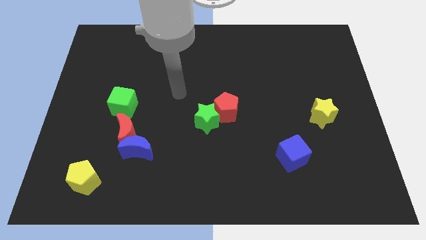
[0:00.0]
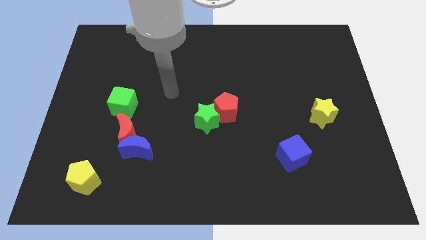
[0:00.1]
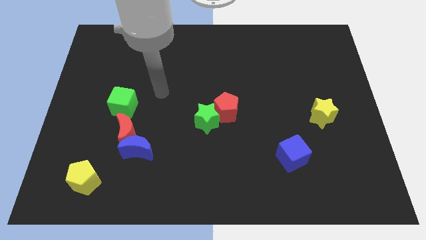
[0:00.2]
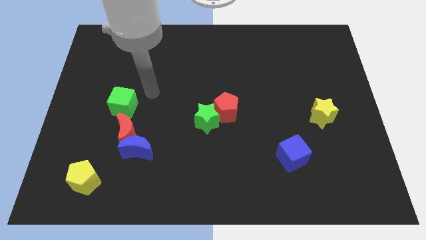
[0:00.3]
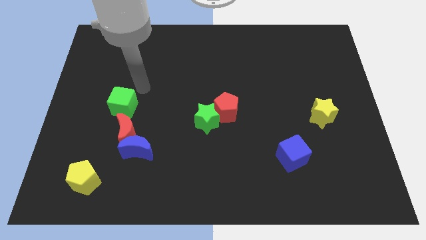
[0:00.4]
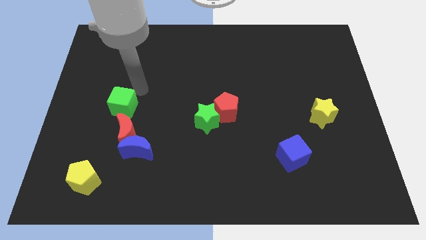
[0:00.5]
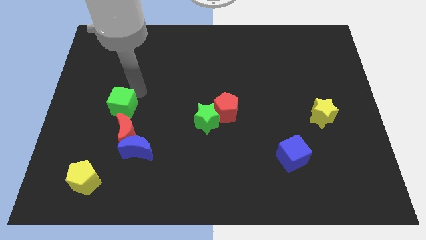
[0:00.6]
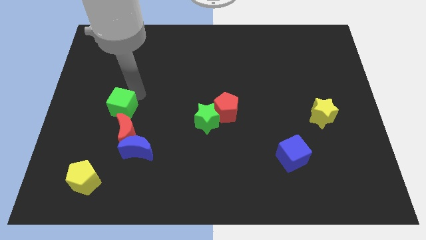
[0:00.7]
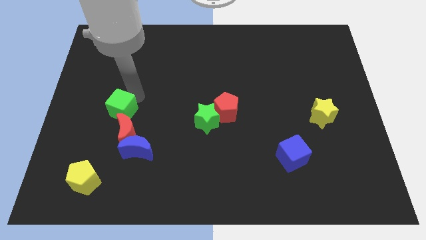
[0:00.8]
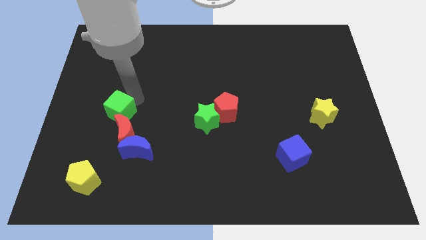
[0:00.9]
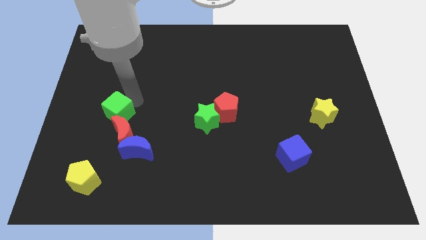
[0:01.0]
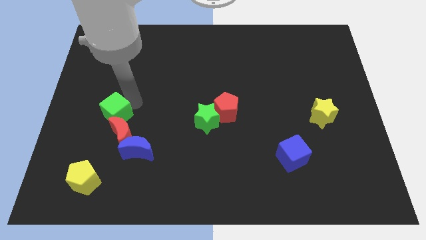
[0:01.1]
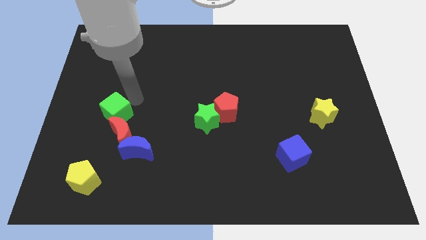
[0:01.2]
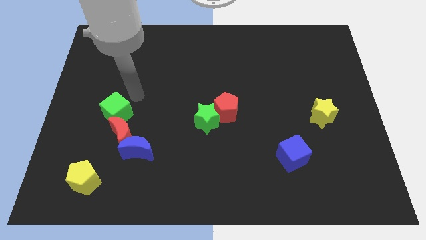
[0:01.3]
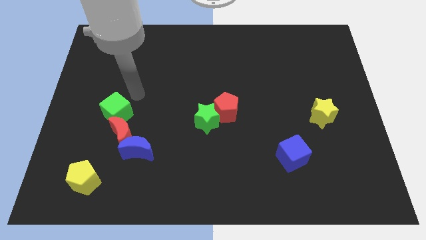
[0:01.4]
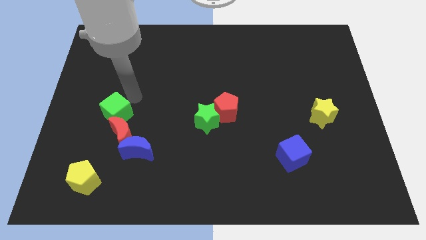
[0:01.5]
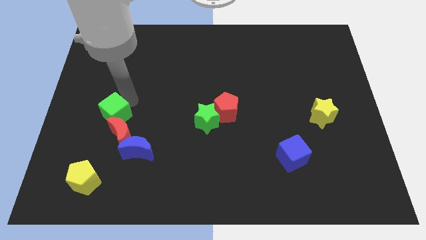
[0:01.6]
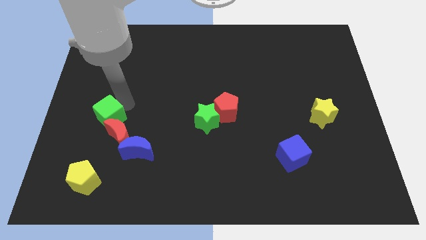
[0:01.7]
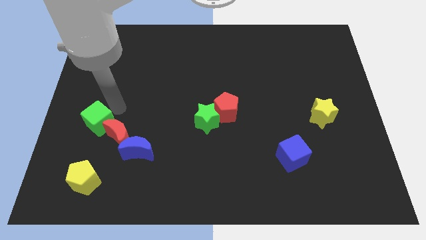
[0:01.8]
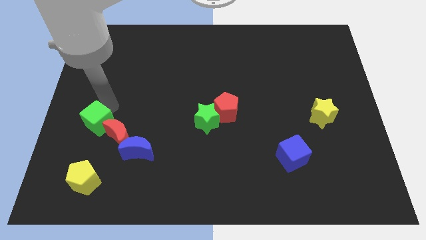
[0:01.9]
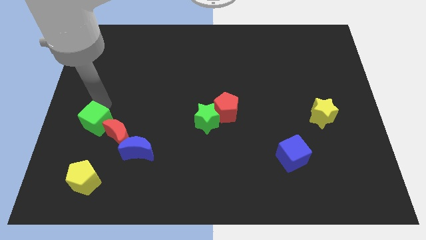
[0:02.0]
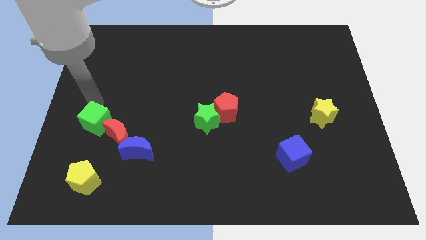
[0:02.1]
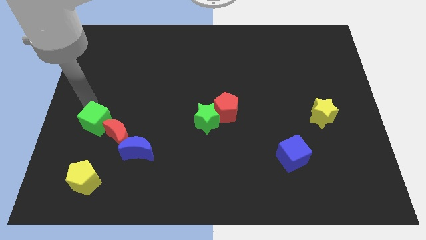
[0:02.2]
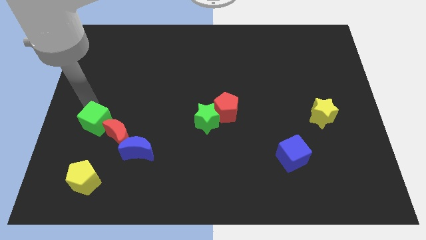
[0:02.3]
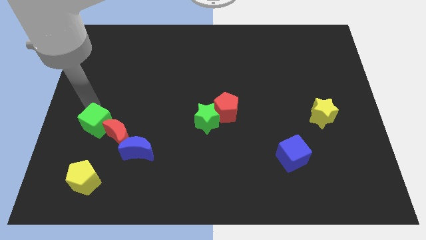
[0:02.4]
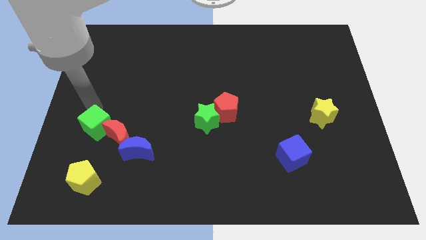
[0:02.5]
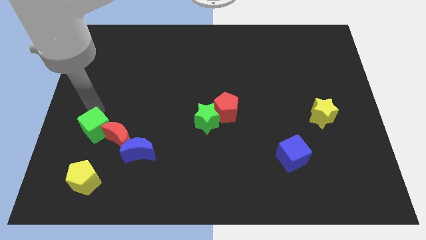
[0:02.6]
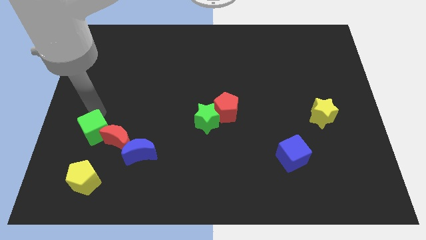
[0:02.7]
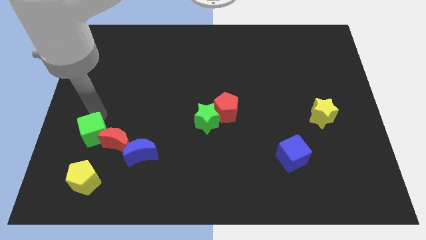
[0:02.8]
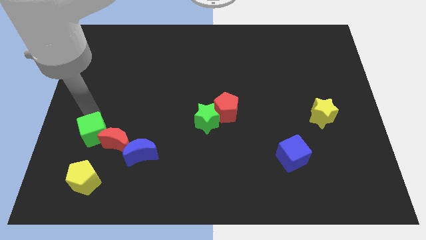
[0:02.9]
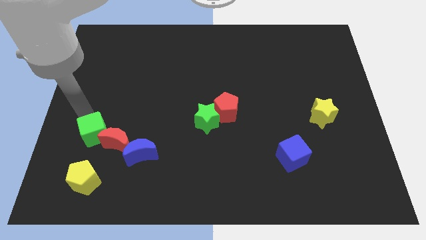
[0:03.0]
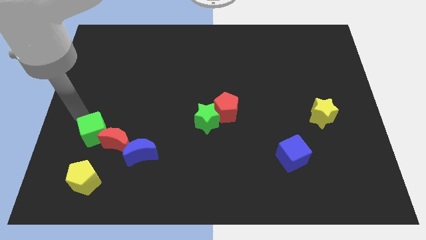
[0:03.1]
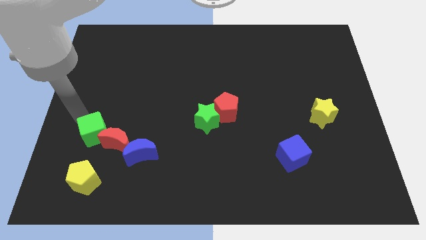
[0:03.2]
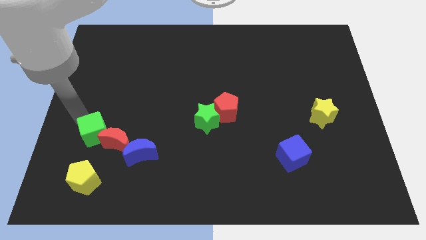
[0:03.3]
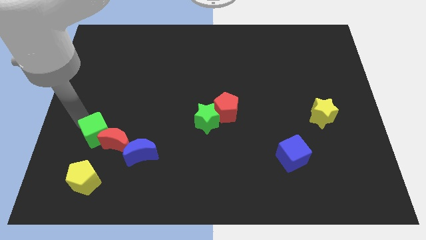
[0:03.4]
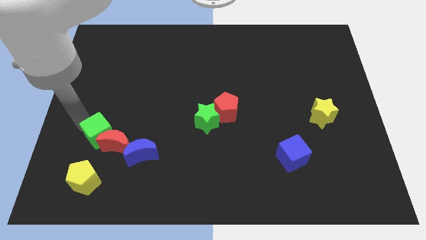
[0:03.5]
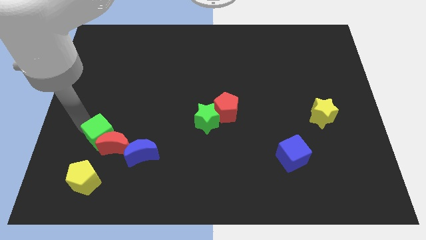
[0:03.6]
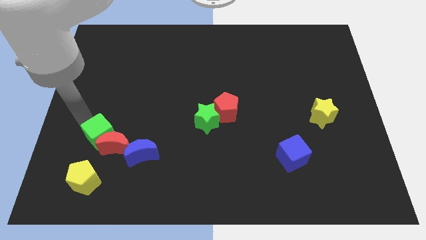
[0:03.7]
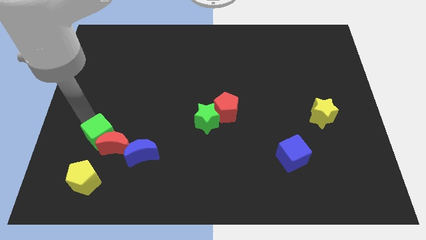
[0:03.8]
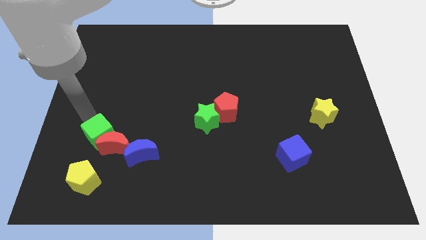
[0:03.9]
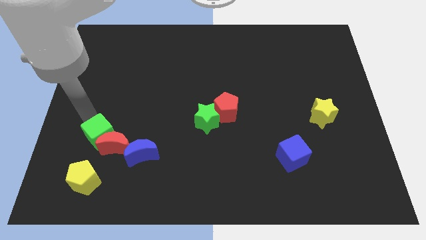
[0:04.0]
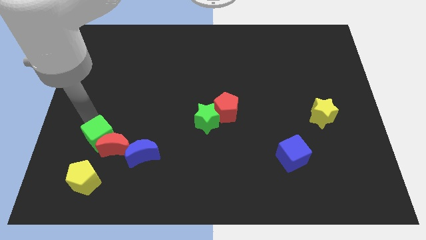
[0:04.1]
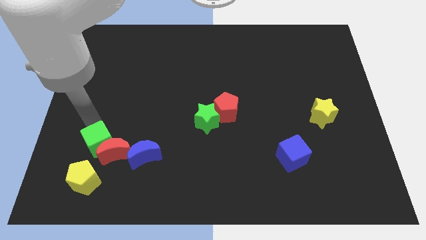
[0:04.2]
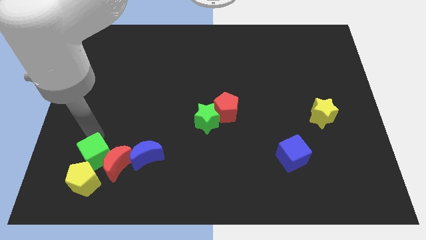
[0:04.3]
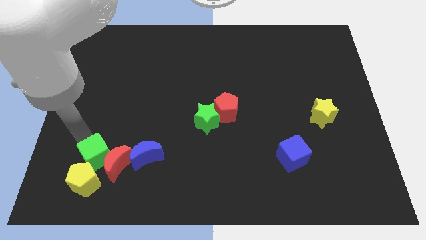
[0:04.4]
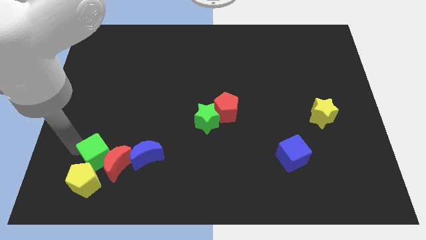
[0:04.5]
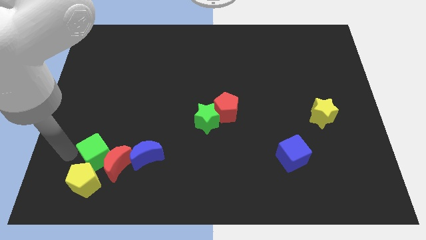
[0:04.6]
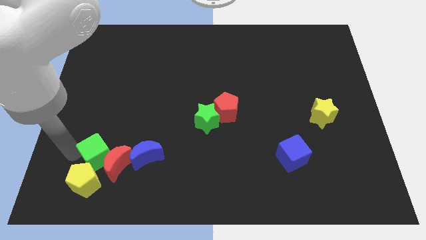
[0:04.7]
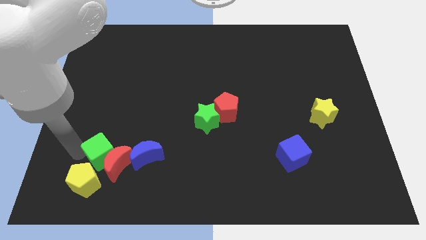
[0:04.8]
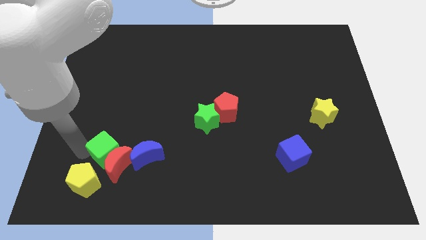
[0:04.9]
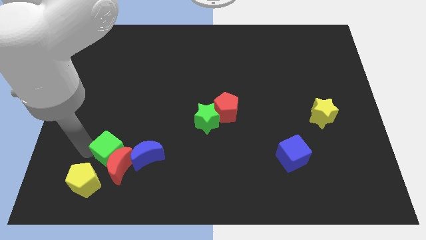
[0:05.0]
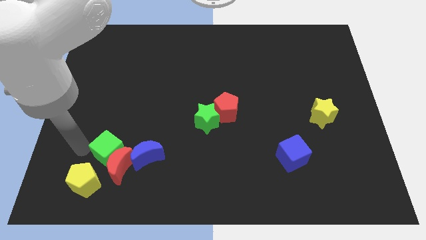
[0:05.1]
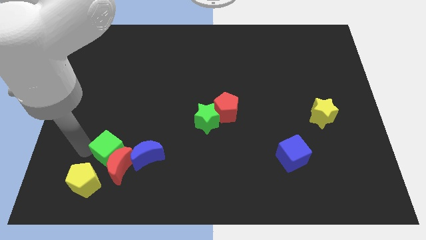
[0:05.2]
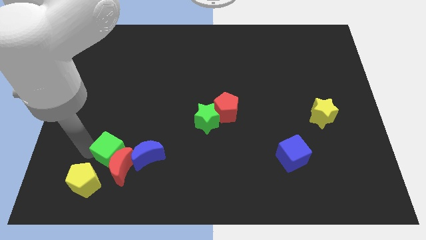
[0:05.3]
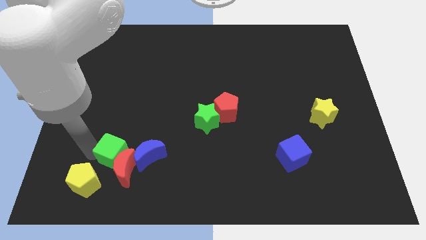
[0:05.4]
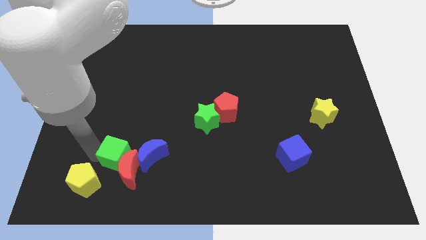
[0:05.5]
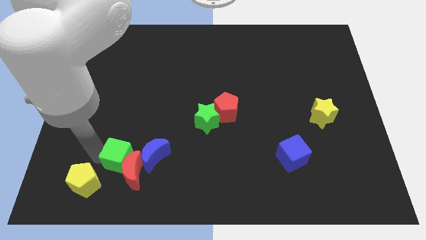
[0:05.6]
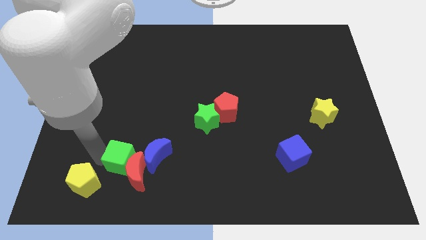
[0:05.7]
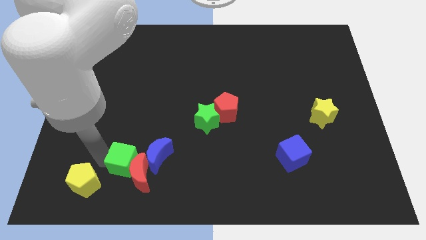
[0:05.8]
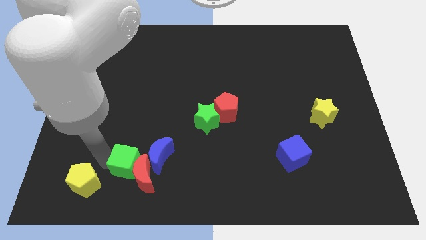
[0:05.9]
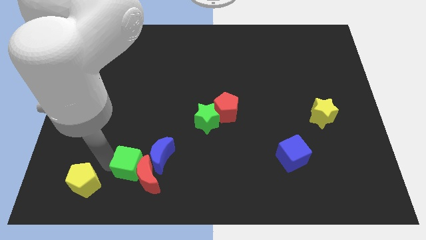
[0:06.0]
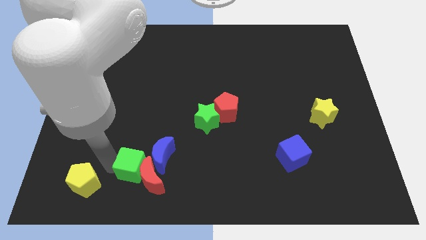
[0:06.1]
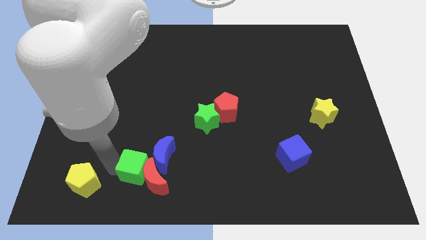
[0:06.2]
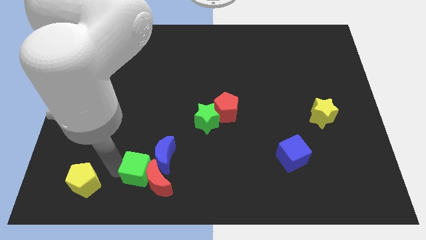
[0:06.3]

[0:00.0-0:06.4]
put the green cube next to the blue moon

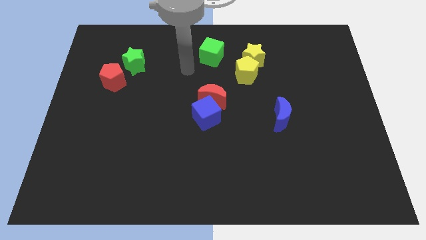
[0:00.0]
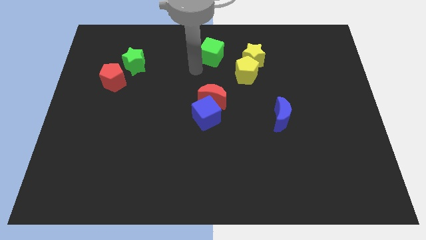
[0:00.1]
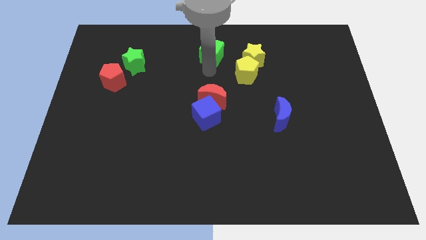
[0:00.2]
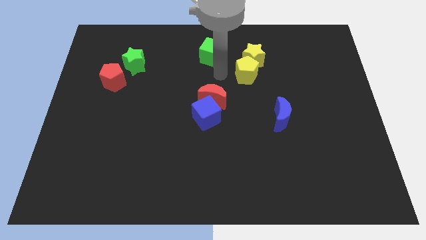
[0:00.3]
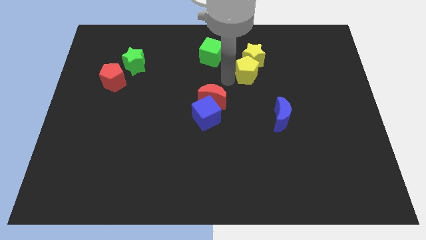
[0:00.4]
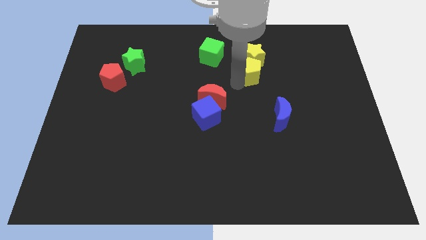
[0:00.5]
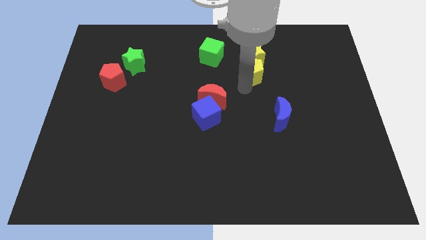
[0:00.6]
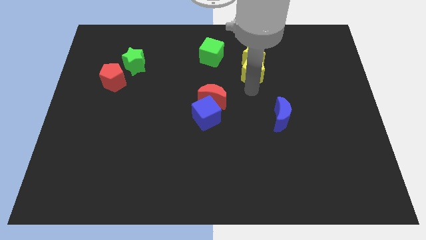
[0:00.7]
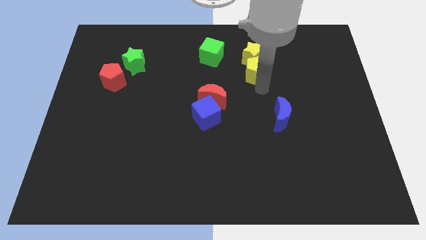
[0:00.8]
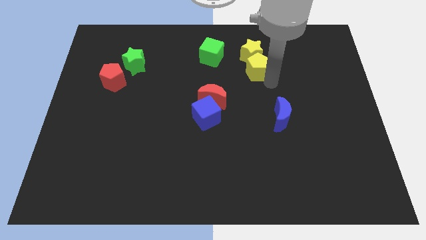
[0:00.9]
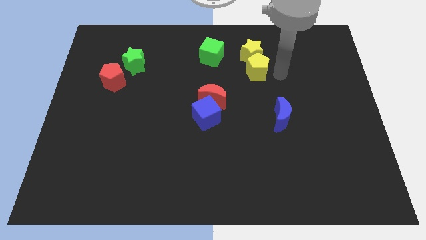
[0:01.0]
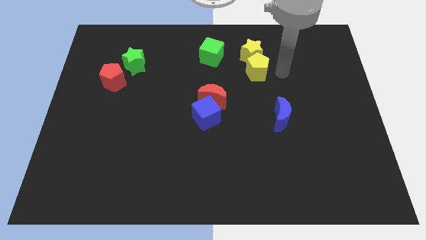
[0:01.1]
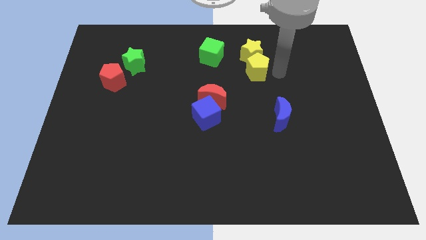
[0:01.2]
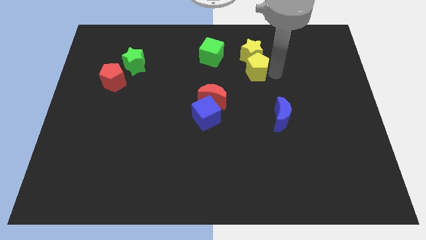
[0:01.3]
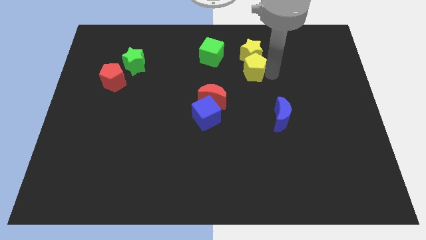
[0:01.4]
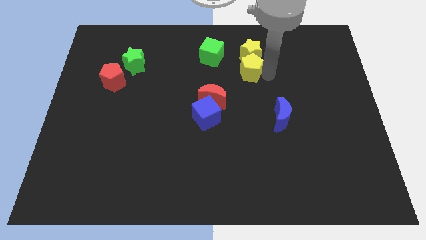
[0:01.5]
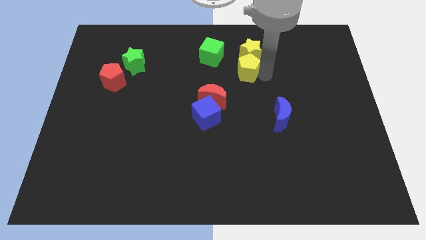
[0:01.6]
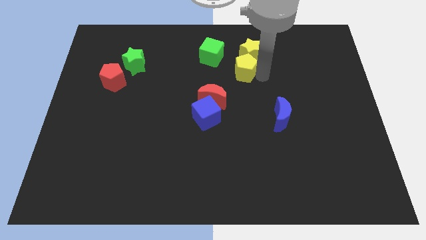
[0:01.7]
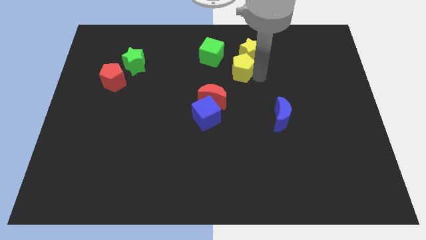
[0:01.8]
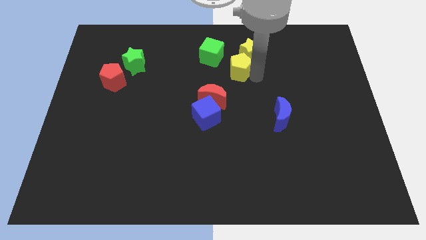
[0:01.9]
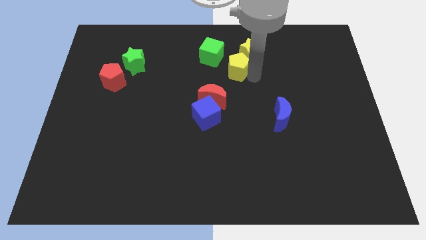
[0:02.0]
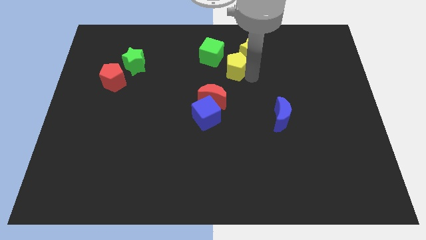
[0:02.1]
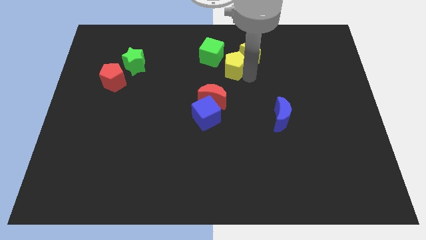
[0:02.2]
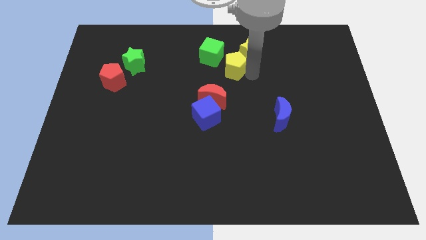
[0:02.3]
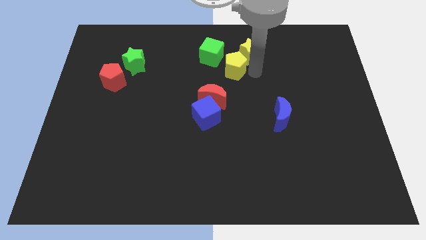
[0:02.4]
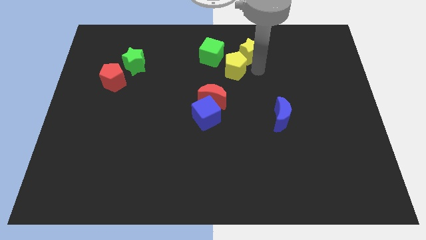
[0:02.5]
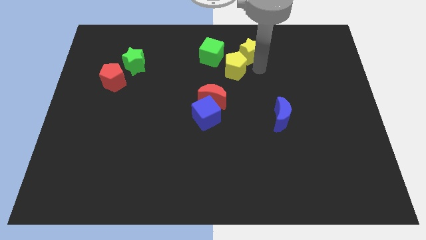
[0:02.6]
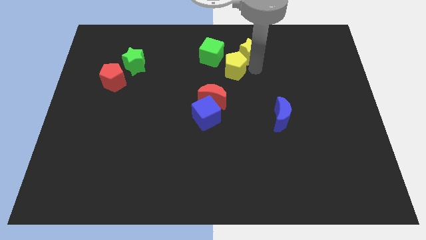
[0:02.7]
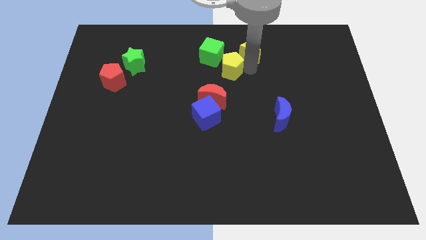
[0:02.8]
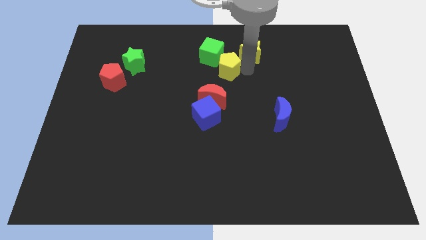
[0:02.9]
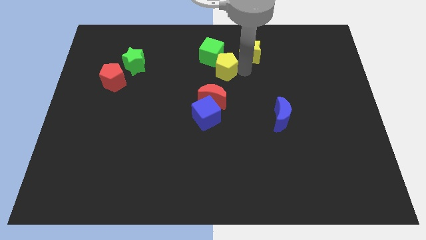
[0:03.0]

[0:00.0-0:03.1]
move the yellow pentagon towards the green cube
